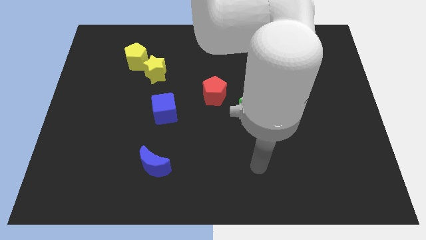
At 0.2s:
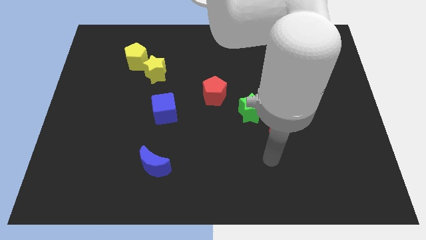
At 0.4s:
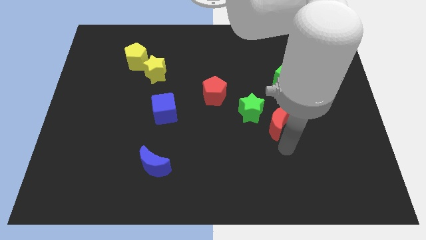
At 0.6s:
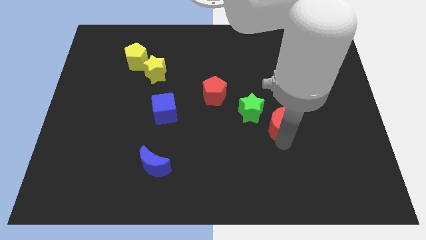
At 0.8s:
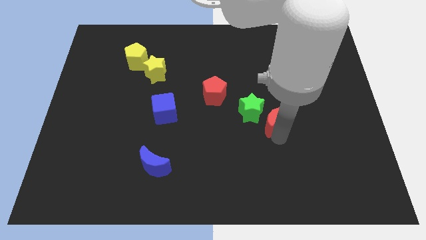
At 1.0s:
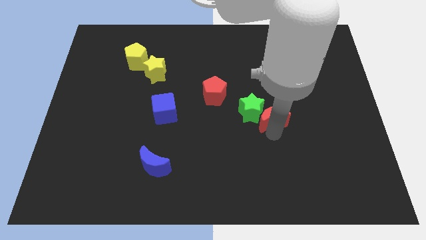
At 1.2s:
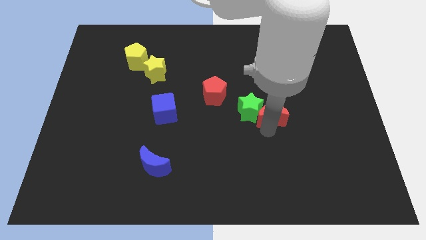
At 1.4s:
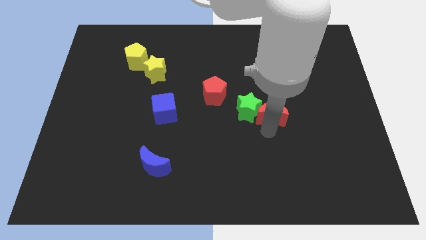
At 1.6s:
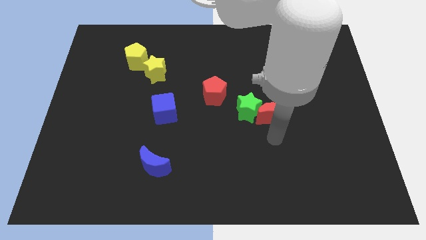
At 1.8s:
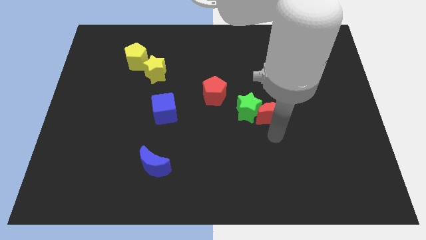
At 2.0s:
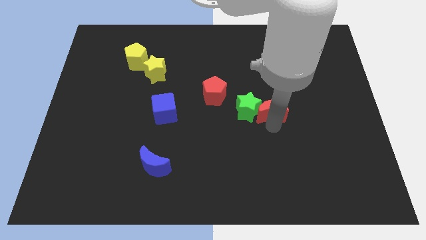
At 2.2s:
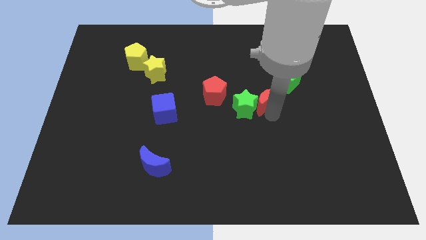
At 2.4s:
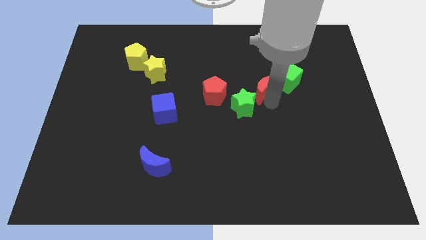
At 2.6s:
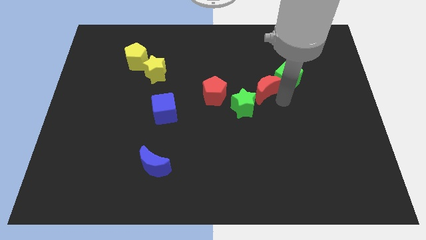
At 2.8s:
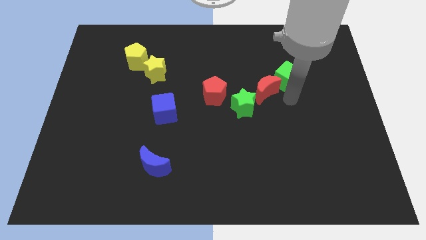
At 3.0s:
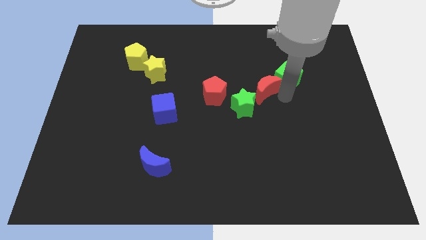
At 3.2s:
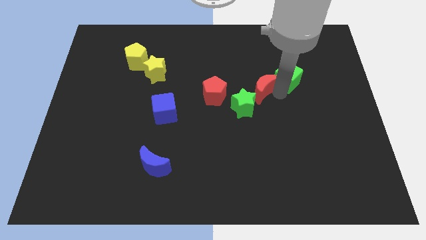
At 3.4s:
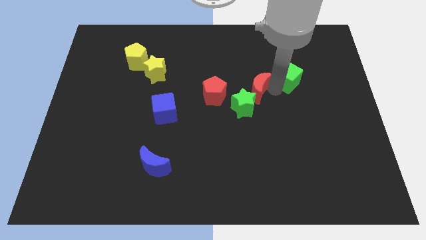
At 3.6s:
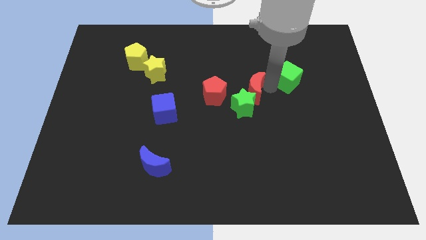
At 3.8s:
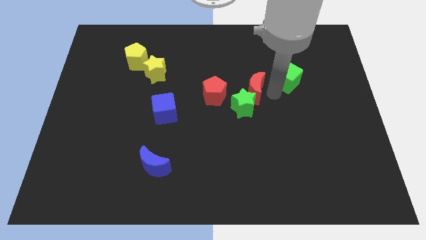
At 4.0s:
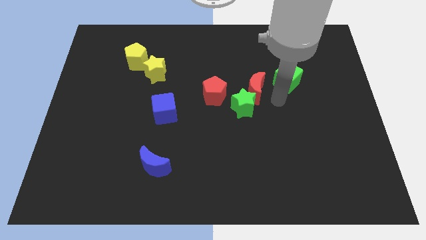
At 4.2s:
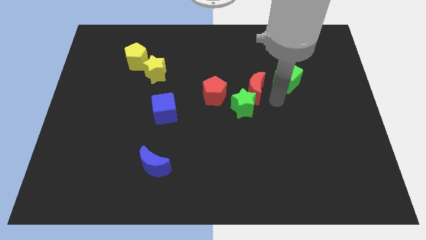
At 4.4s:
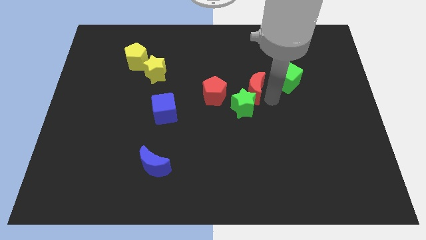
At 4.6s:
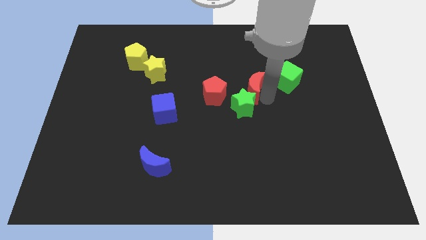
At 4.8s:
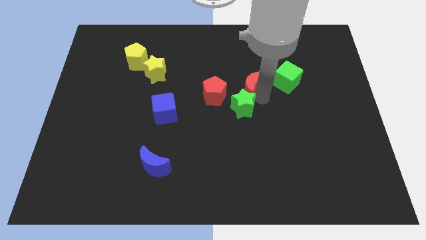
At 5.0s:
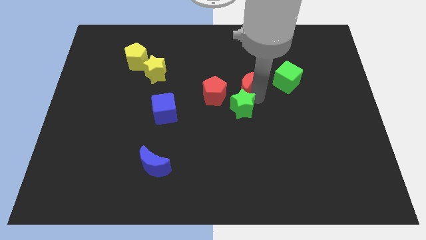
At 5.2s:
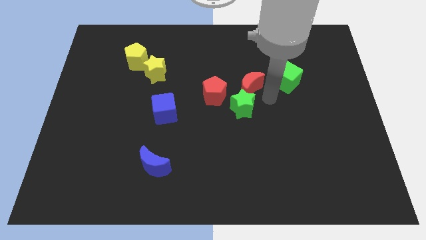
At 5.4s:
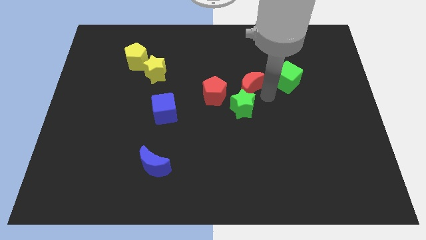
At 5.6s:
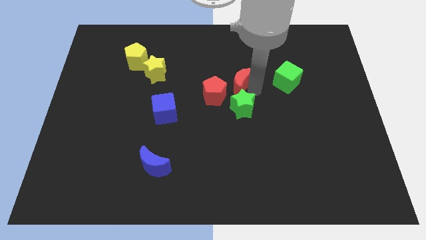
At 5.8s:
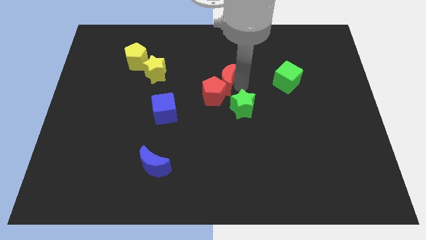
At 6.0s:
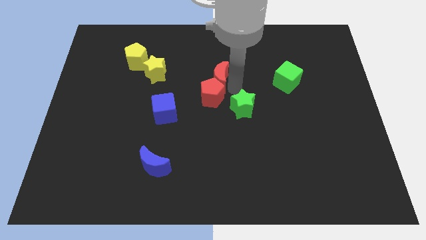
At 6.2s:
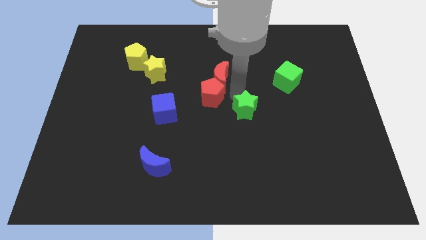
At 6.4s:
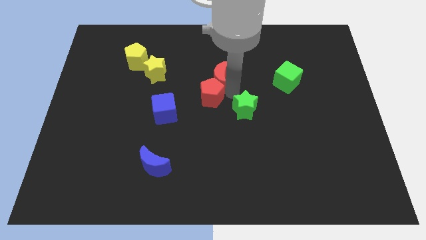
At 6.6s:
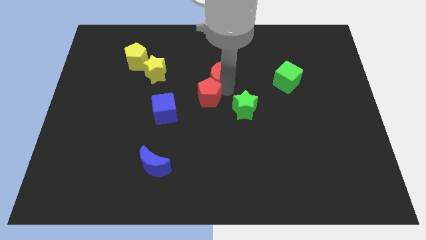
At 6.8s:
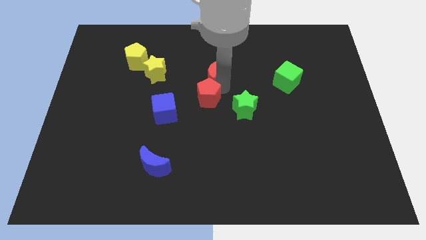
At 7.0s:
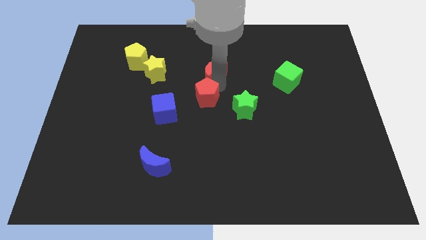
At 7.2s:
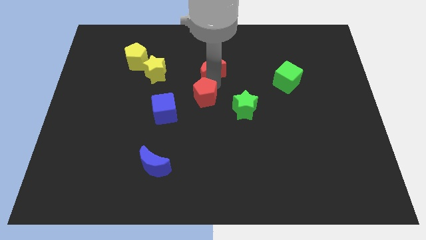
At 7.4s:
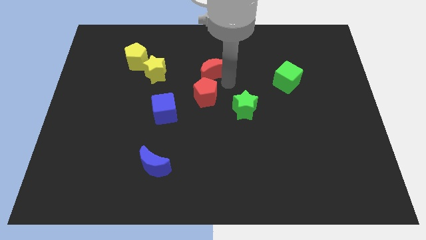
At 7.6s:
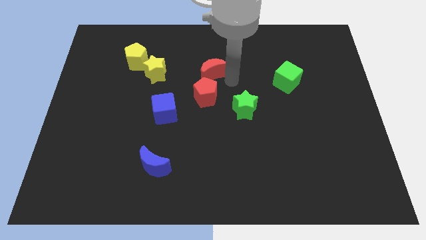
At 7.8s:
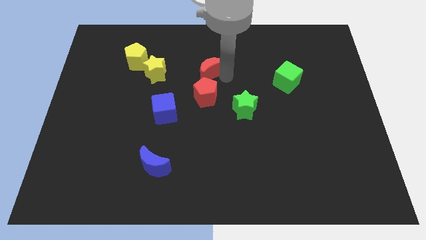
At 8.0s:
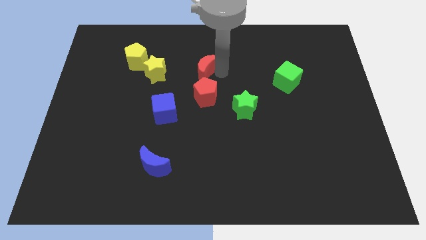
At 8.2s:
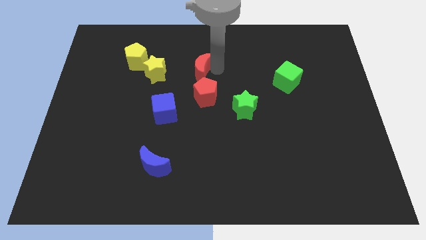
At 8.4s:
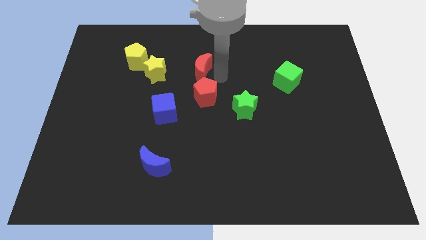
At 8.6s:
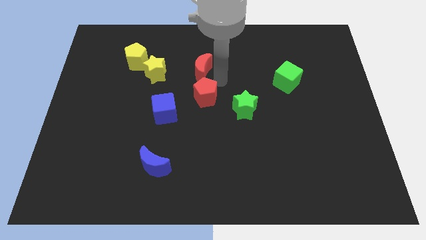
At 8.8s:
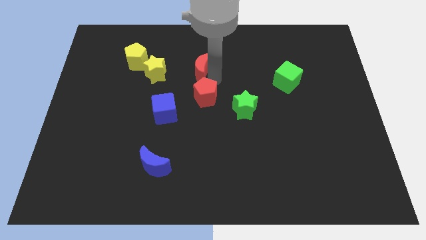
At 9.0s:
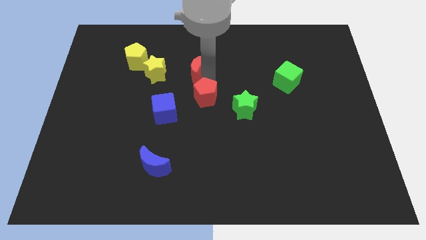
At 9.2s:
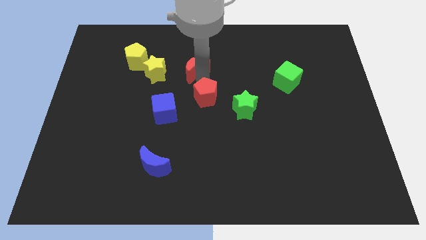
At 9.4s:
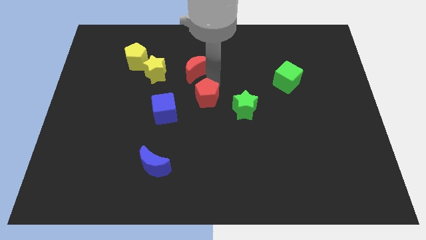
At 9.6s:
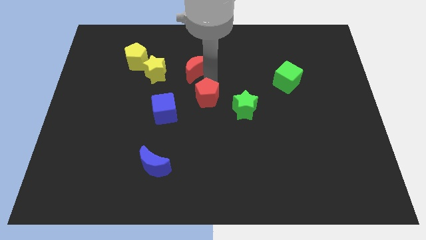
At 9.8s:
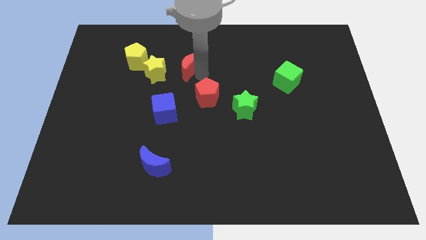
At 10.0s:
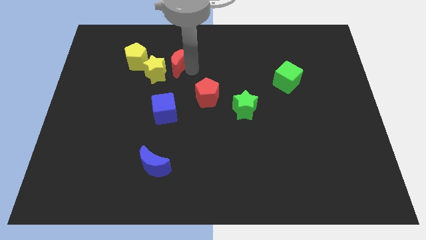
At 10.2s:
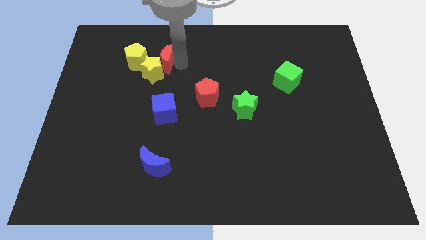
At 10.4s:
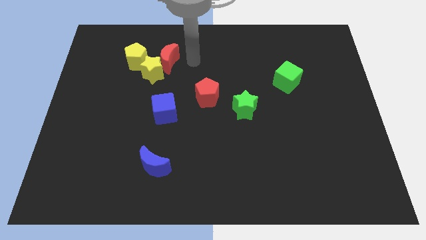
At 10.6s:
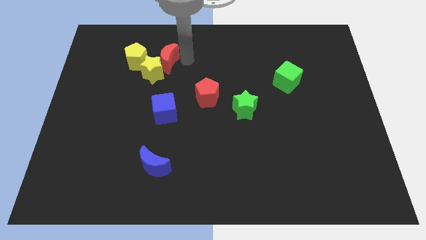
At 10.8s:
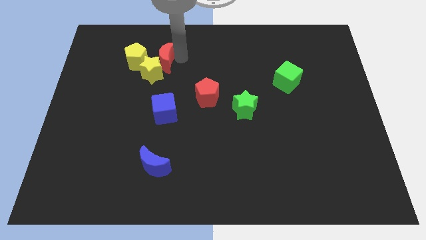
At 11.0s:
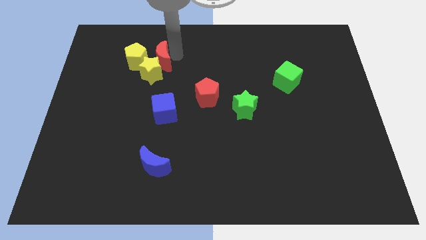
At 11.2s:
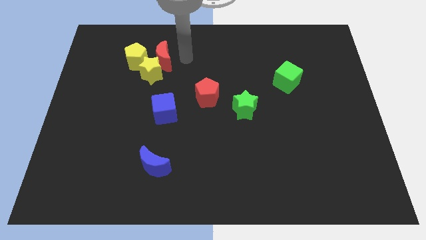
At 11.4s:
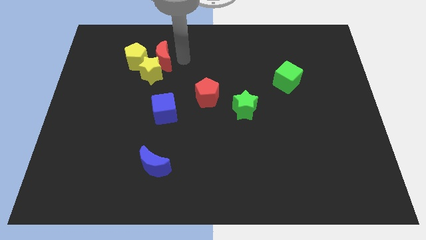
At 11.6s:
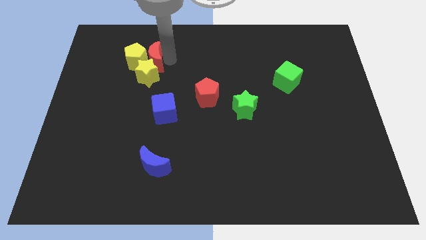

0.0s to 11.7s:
push the red moon close to the yellow pentagon

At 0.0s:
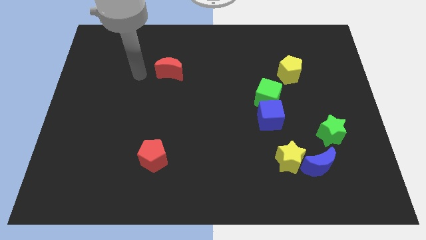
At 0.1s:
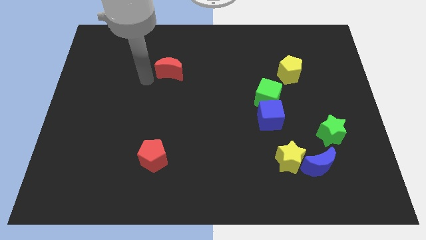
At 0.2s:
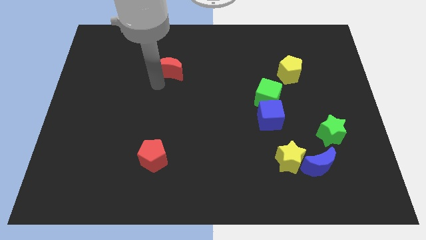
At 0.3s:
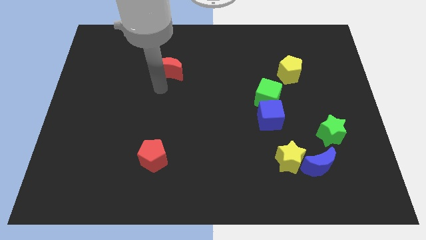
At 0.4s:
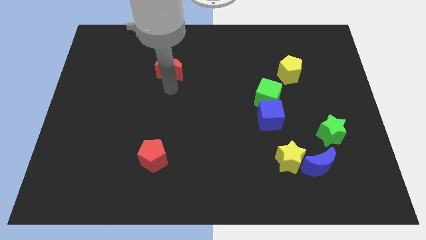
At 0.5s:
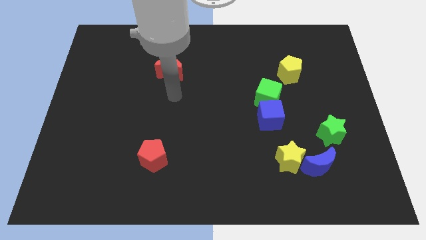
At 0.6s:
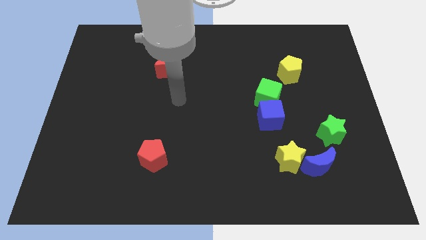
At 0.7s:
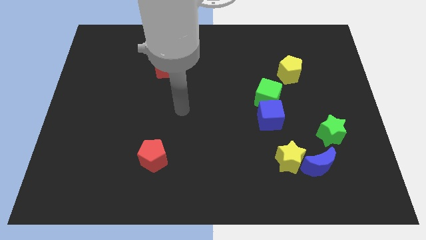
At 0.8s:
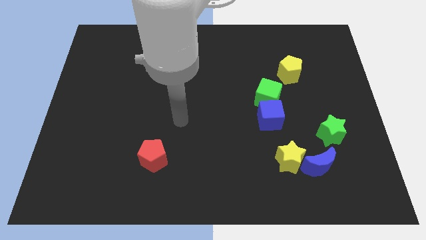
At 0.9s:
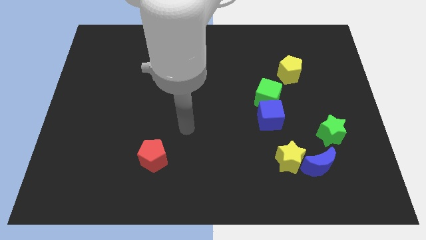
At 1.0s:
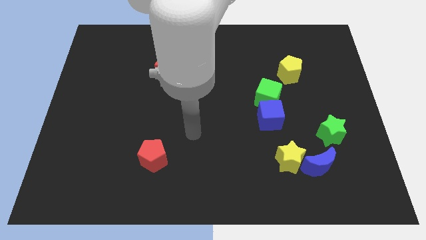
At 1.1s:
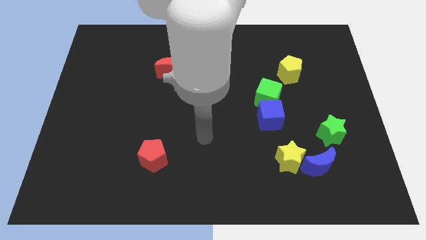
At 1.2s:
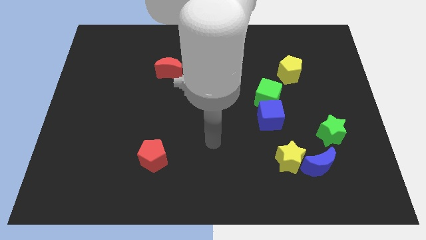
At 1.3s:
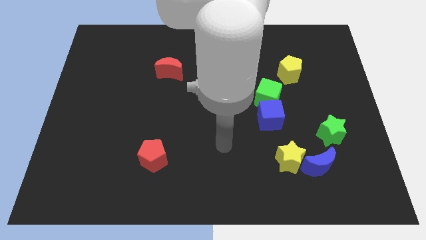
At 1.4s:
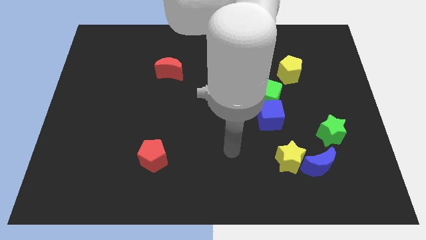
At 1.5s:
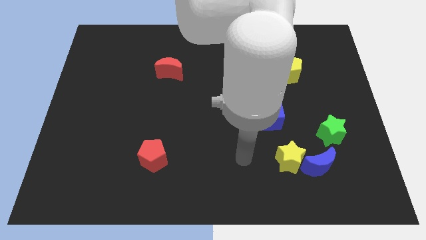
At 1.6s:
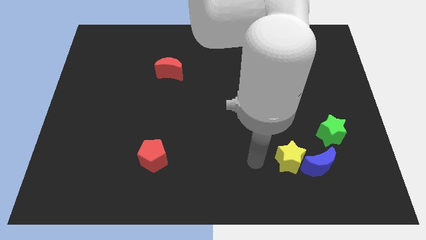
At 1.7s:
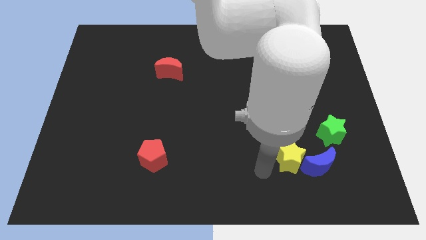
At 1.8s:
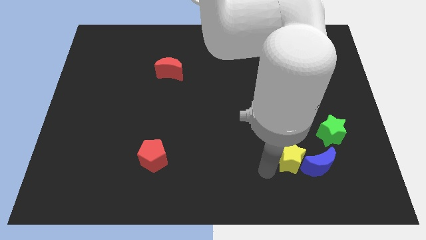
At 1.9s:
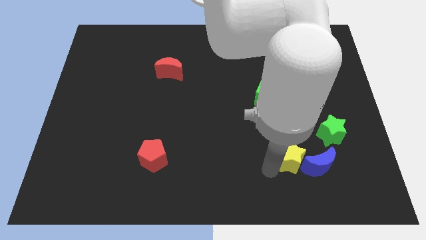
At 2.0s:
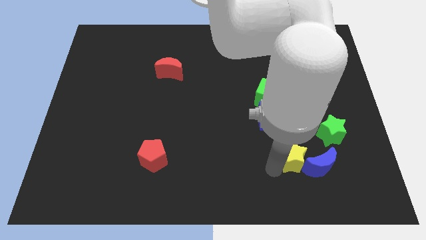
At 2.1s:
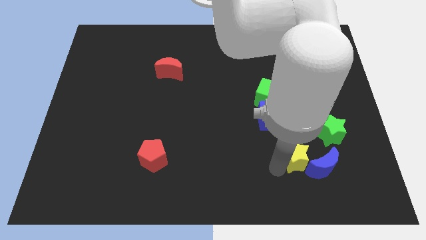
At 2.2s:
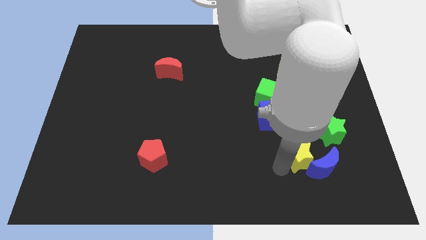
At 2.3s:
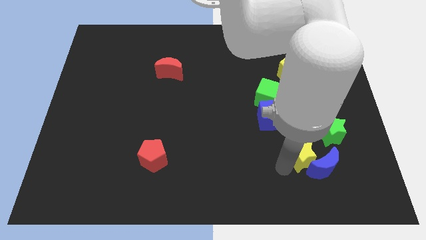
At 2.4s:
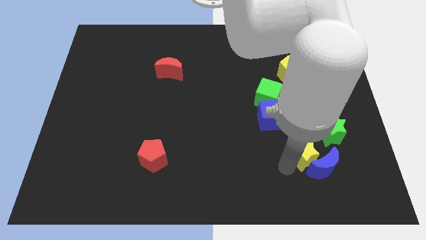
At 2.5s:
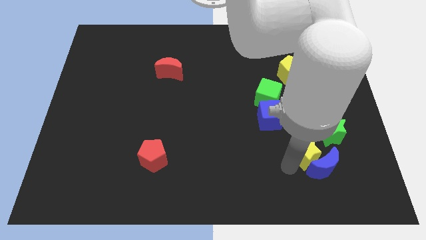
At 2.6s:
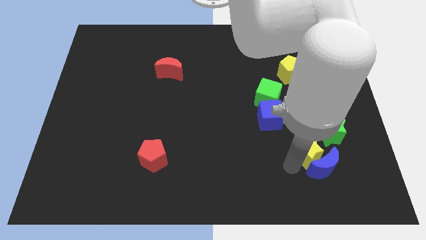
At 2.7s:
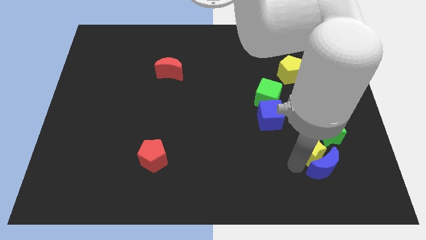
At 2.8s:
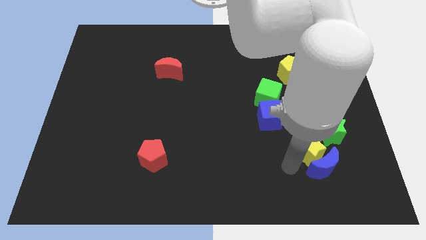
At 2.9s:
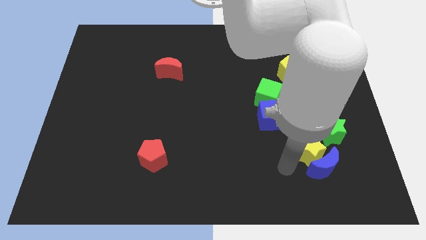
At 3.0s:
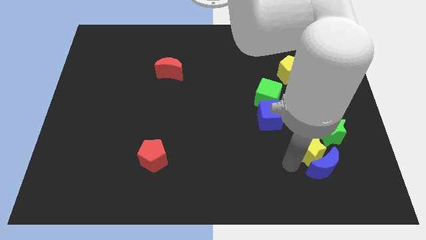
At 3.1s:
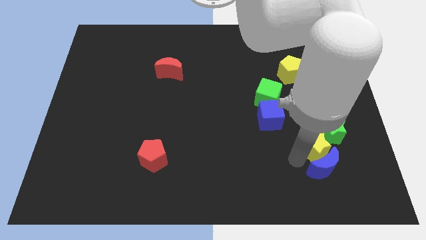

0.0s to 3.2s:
slide the yellow star close to the green star
